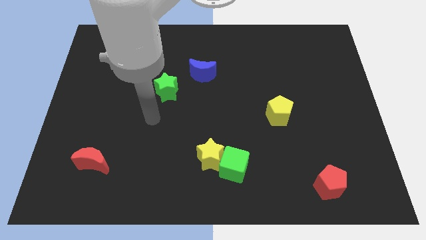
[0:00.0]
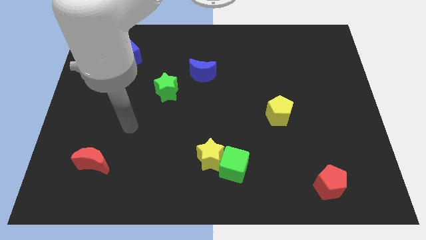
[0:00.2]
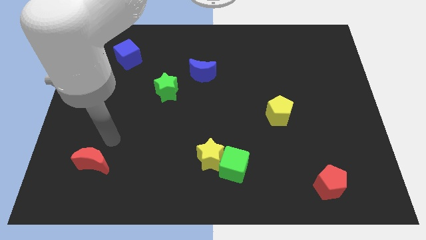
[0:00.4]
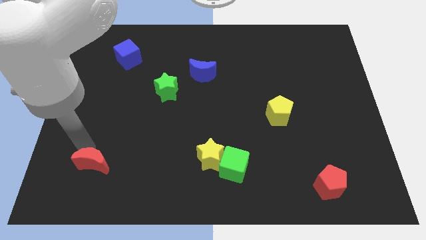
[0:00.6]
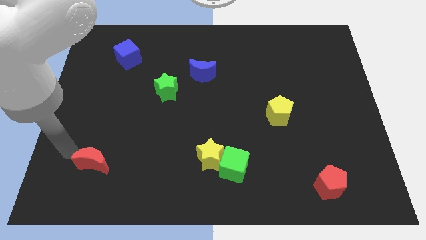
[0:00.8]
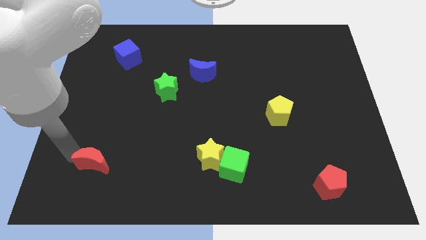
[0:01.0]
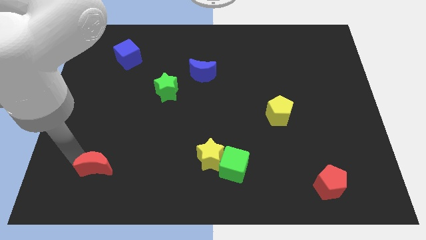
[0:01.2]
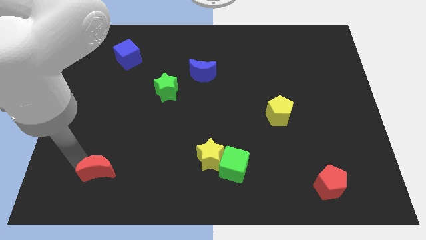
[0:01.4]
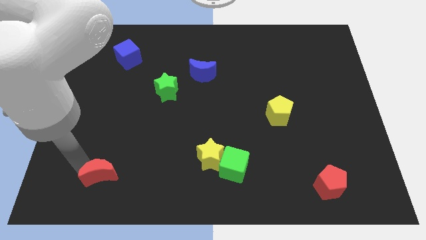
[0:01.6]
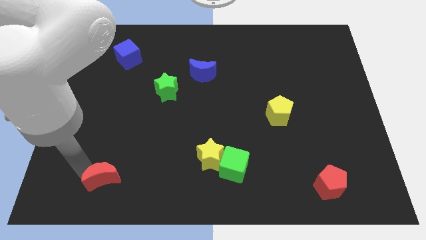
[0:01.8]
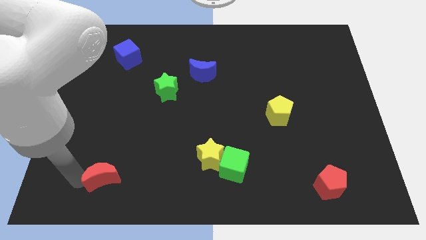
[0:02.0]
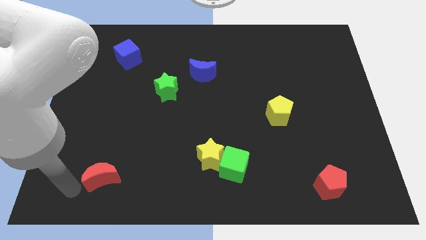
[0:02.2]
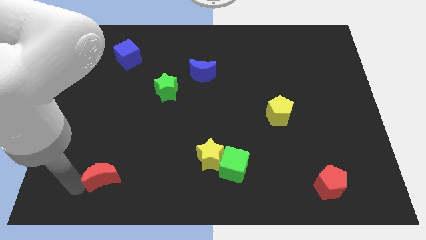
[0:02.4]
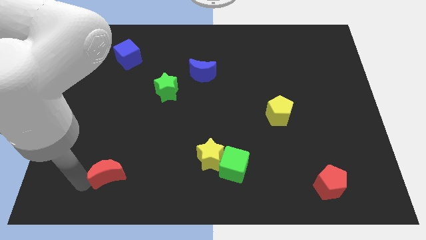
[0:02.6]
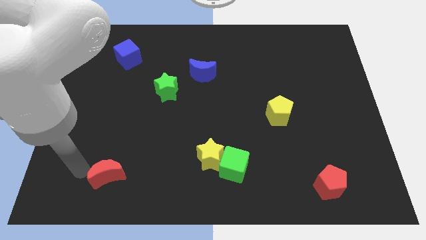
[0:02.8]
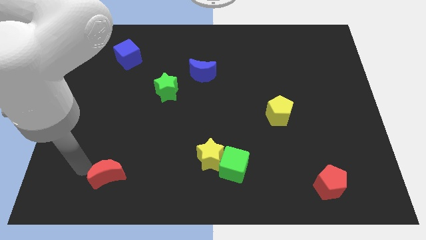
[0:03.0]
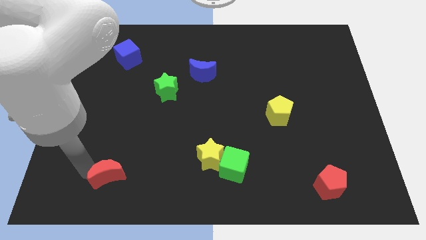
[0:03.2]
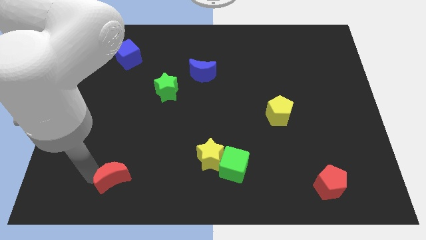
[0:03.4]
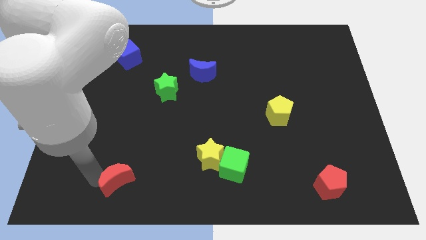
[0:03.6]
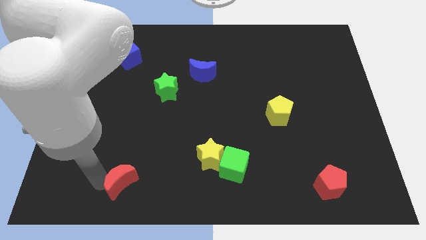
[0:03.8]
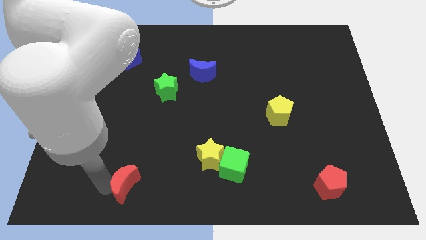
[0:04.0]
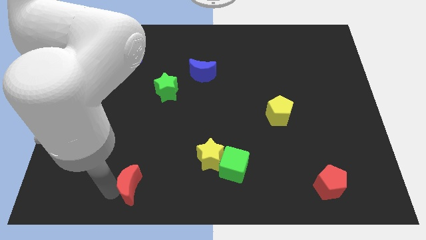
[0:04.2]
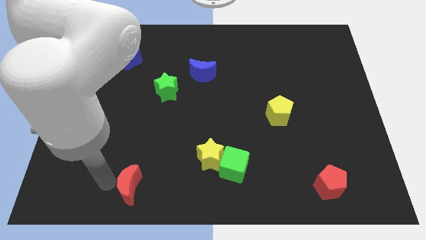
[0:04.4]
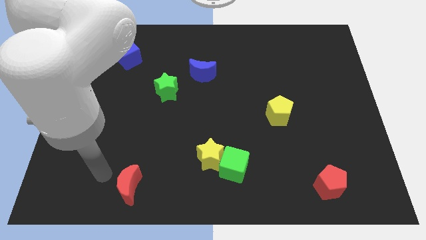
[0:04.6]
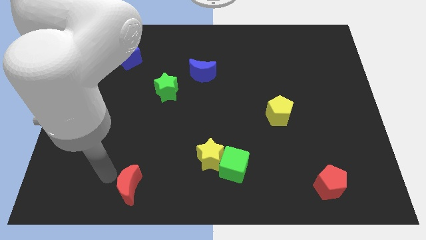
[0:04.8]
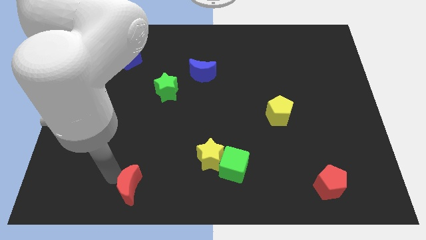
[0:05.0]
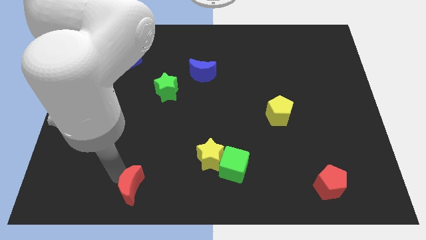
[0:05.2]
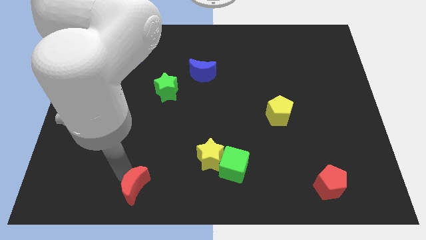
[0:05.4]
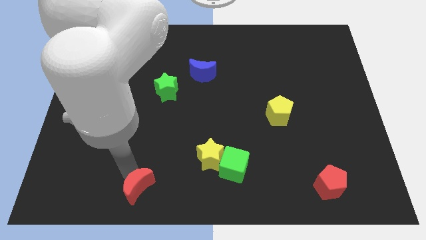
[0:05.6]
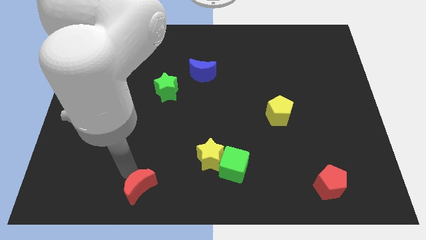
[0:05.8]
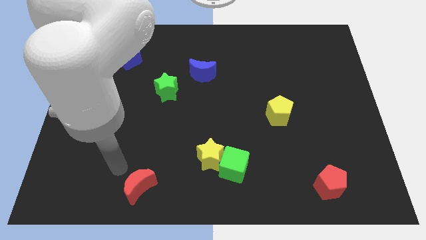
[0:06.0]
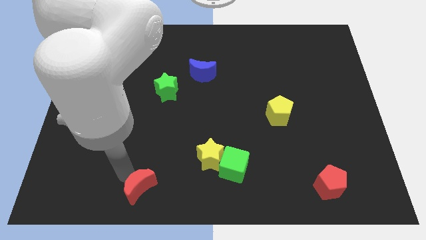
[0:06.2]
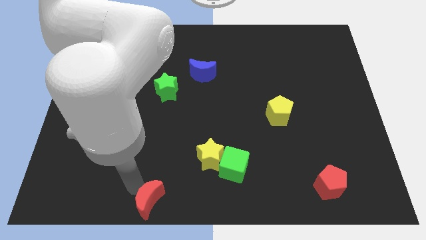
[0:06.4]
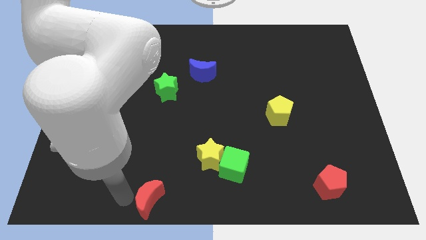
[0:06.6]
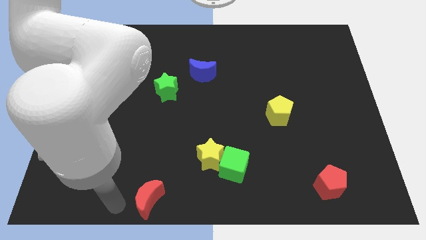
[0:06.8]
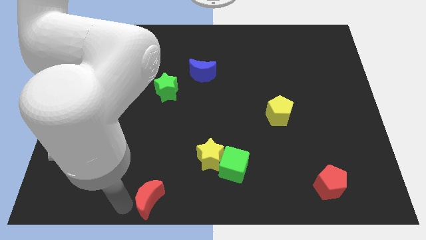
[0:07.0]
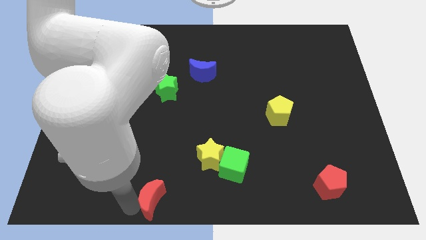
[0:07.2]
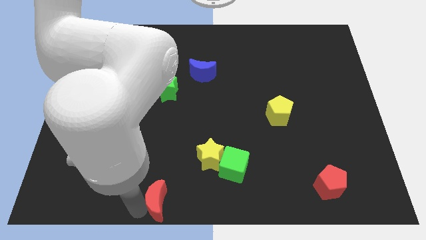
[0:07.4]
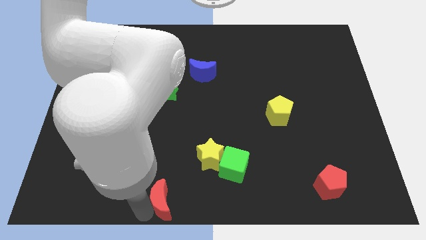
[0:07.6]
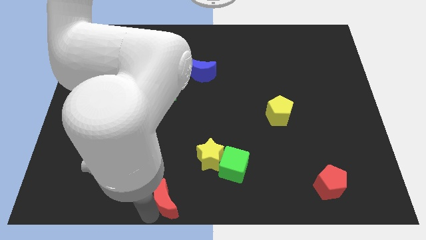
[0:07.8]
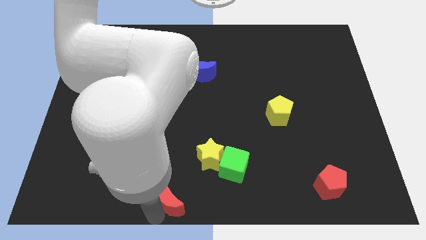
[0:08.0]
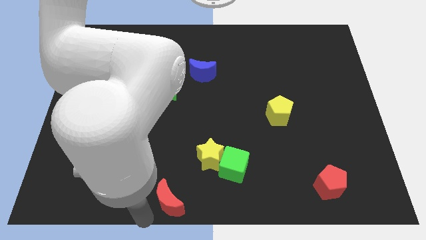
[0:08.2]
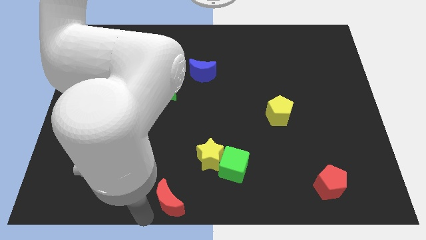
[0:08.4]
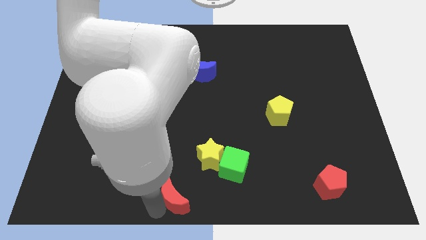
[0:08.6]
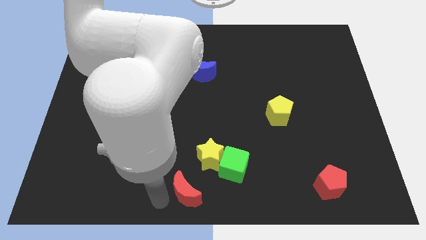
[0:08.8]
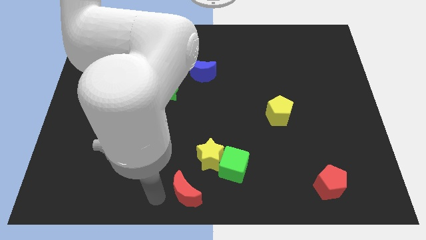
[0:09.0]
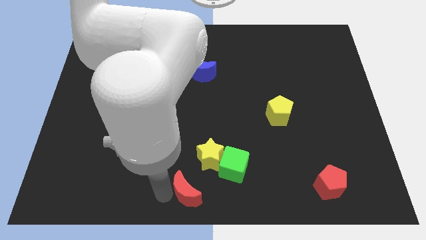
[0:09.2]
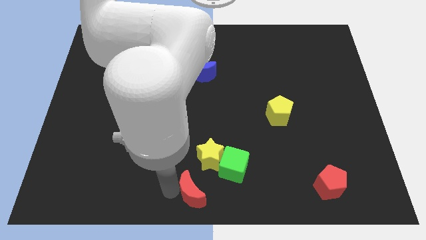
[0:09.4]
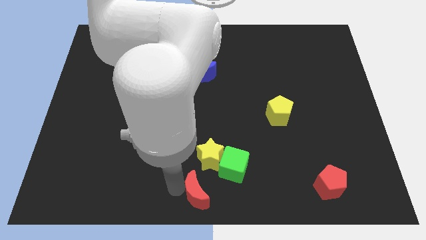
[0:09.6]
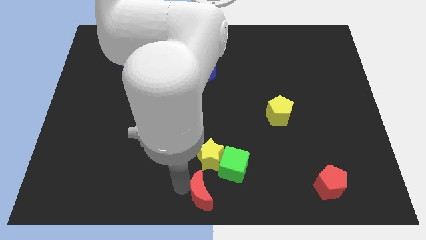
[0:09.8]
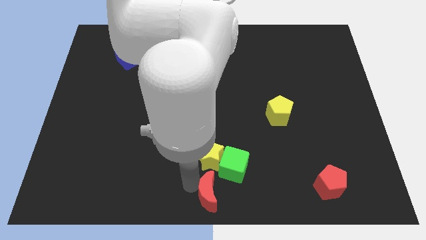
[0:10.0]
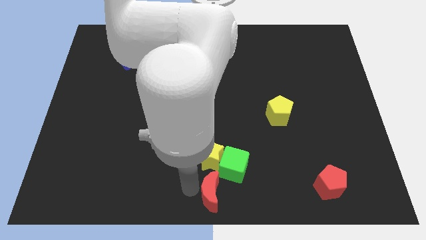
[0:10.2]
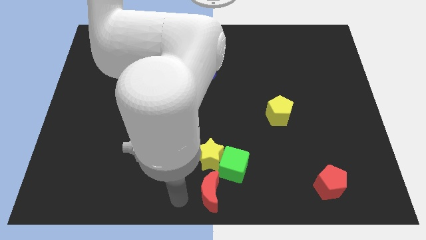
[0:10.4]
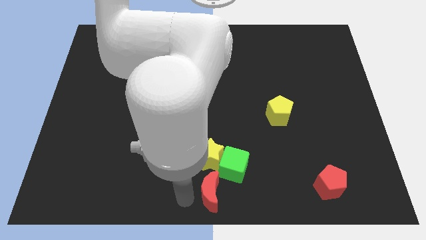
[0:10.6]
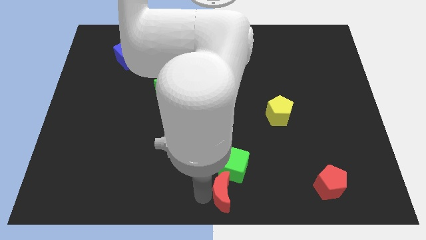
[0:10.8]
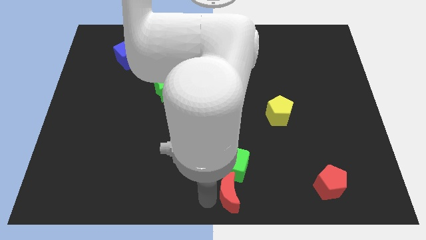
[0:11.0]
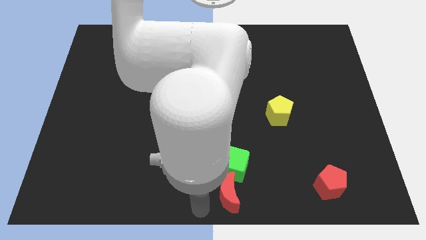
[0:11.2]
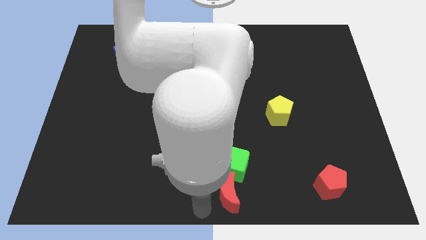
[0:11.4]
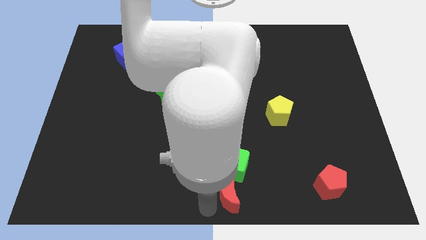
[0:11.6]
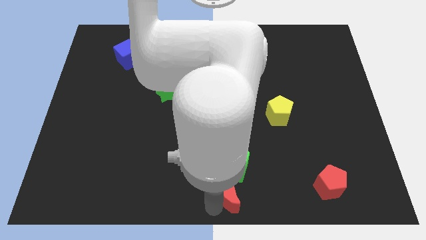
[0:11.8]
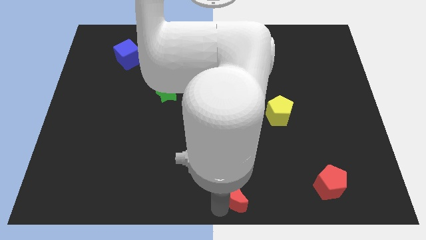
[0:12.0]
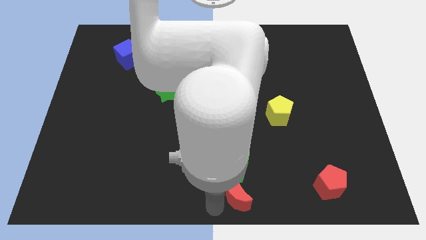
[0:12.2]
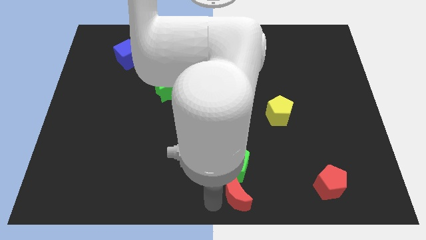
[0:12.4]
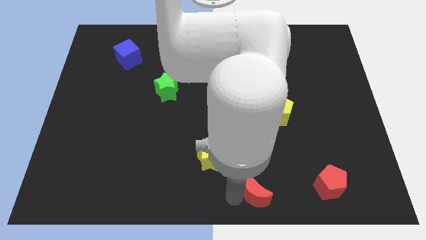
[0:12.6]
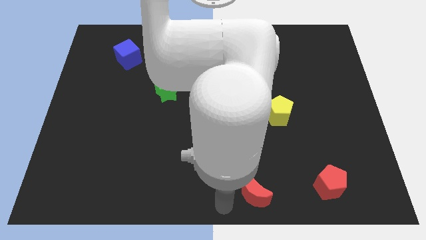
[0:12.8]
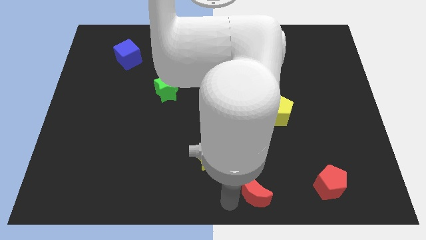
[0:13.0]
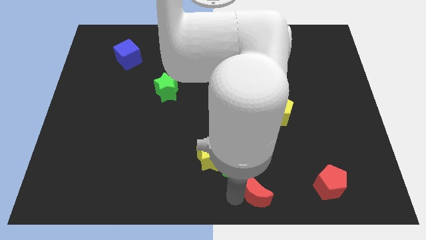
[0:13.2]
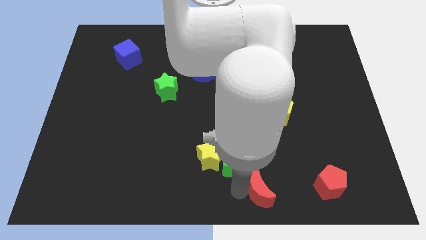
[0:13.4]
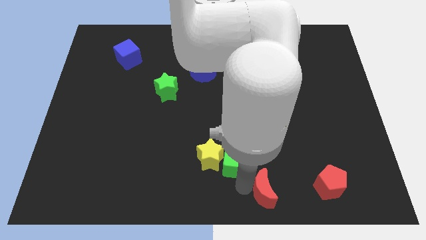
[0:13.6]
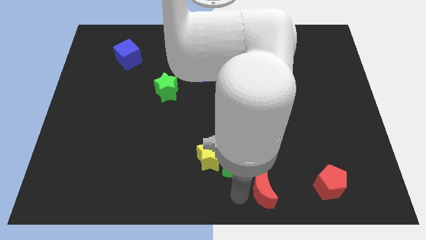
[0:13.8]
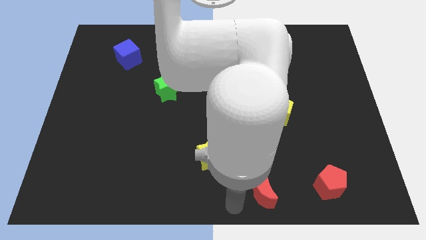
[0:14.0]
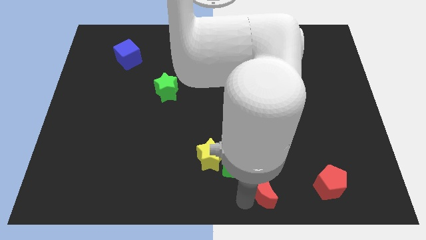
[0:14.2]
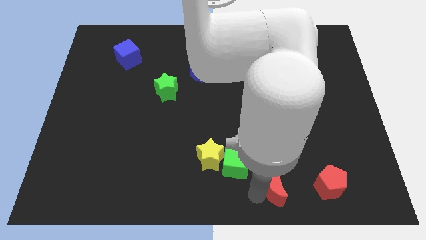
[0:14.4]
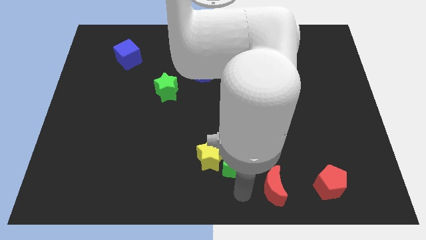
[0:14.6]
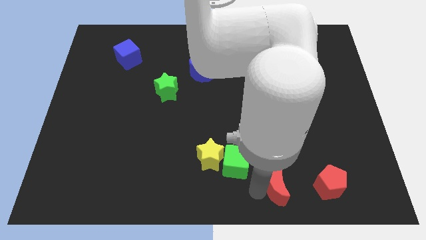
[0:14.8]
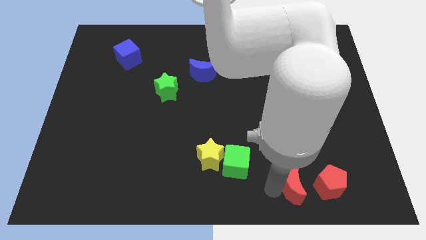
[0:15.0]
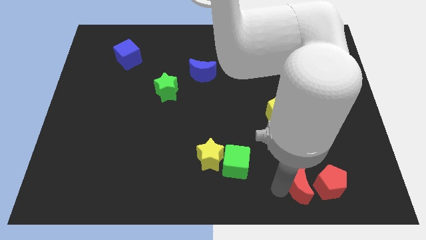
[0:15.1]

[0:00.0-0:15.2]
slide the red moon next to the red pentagon
